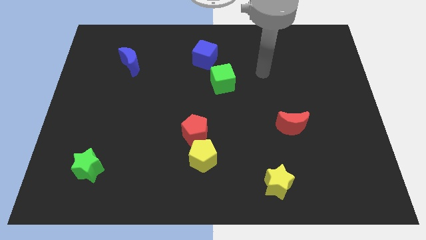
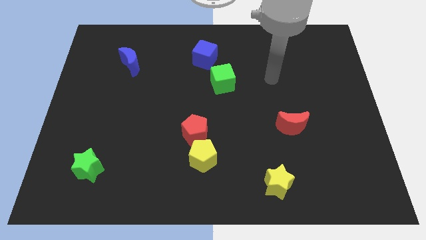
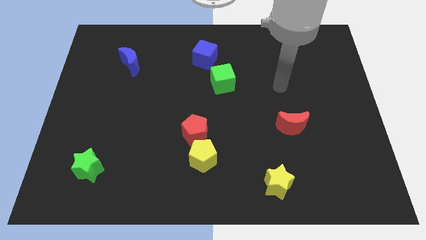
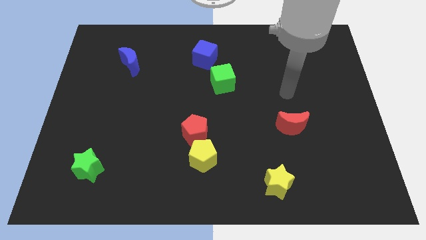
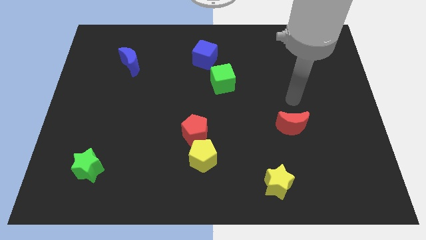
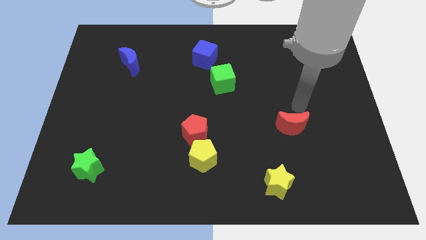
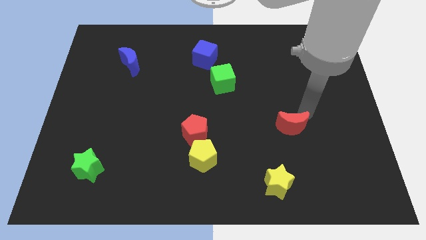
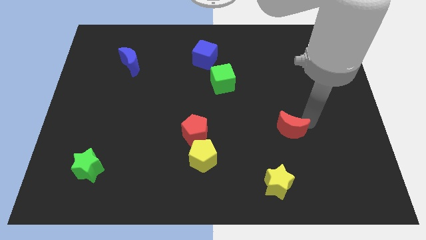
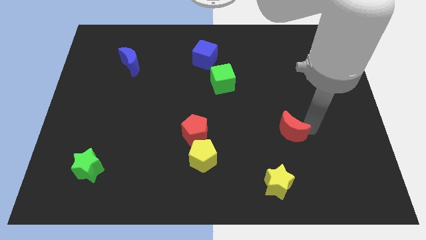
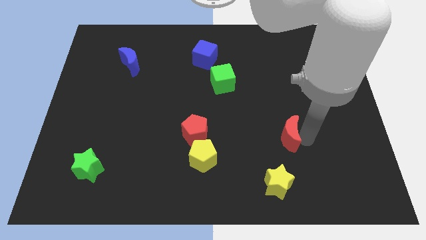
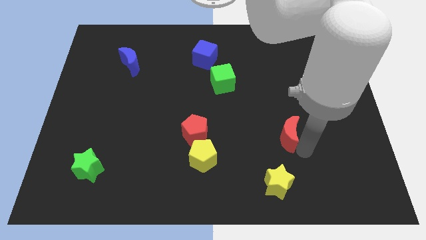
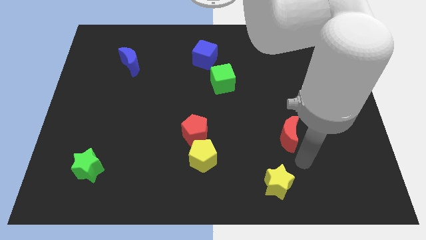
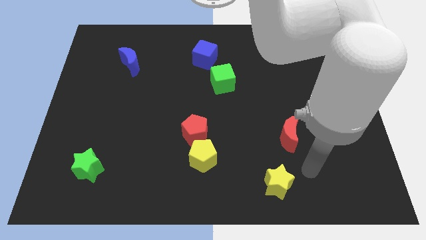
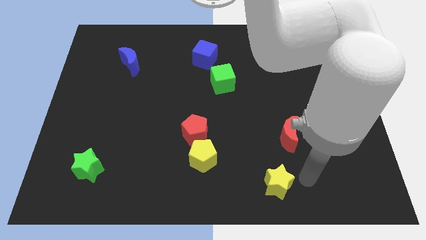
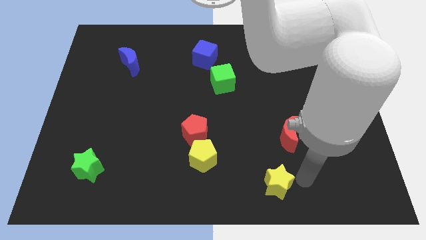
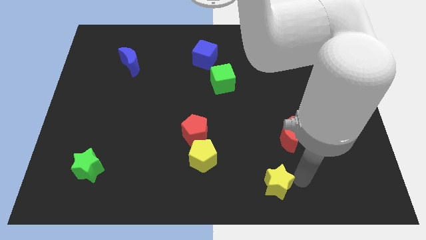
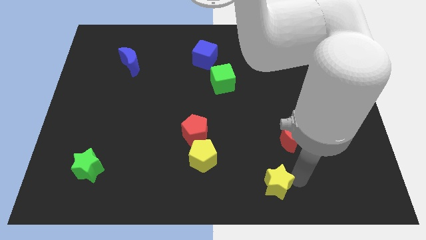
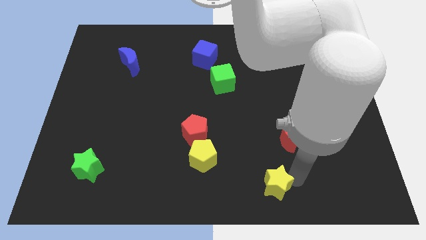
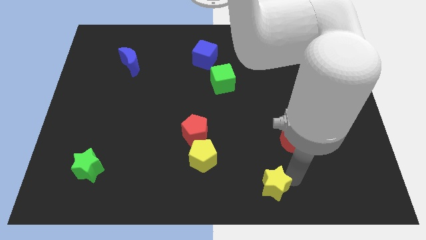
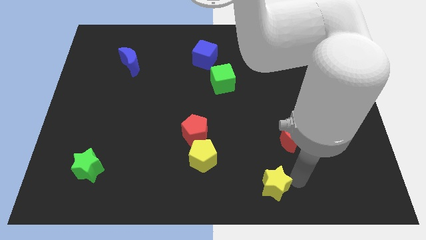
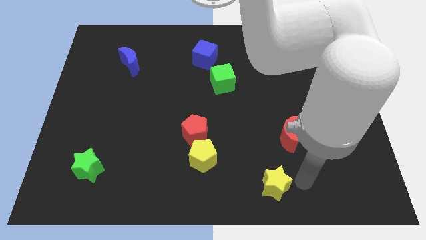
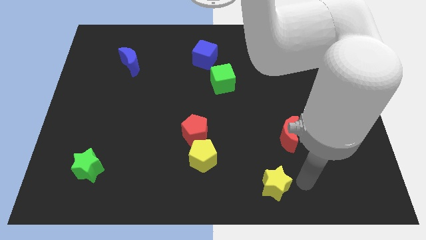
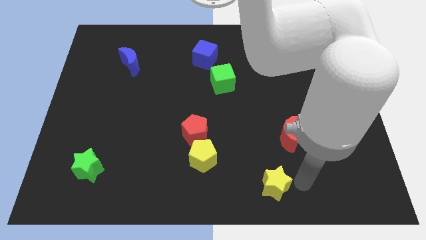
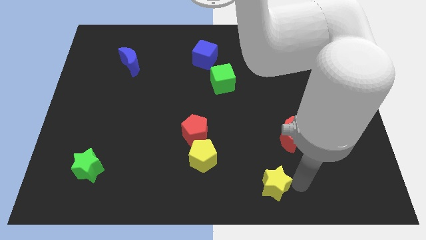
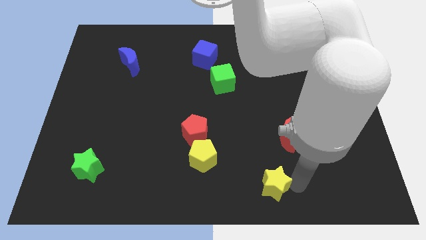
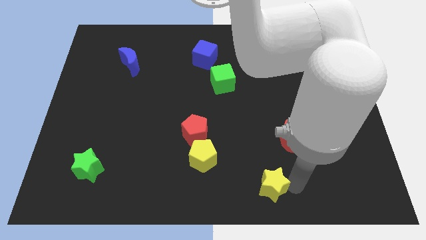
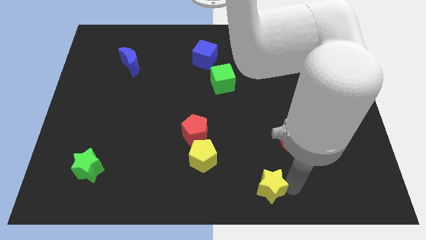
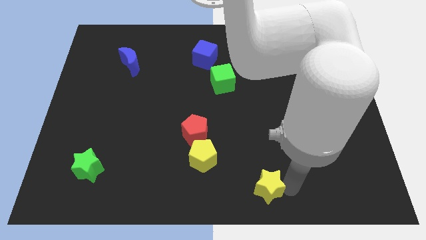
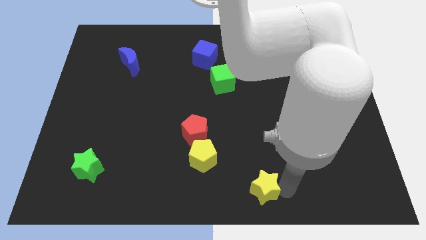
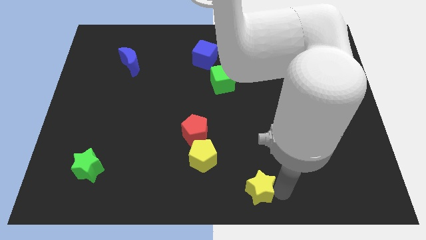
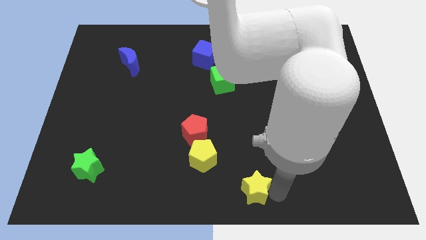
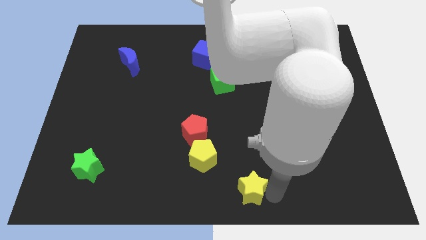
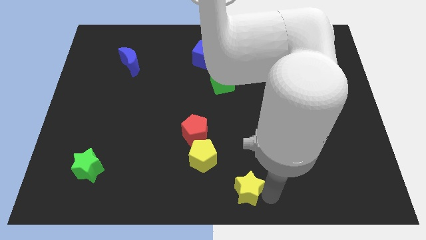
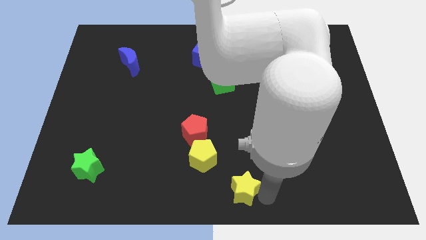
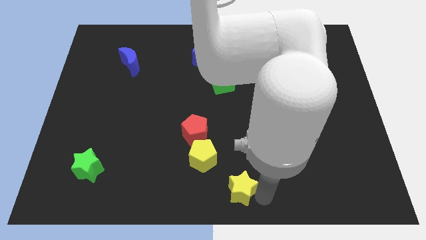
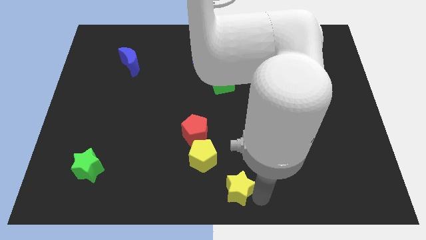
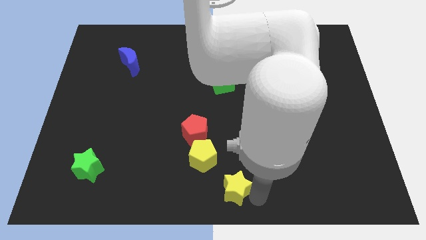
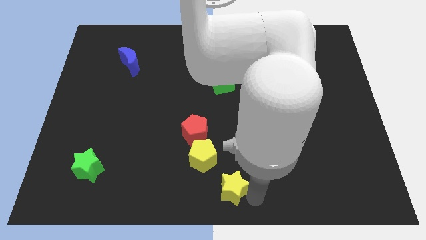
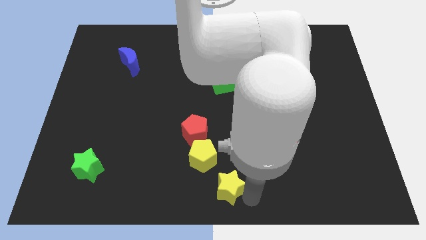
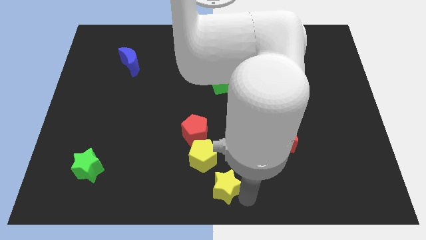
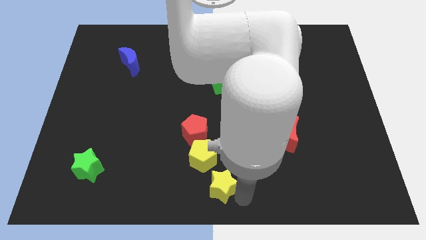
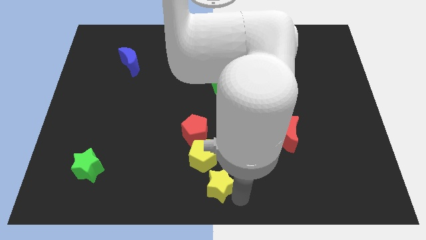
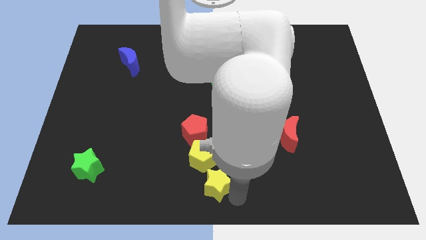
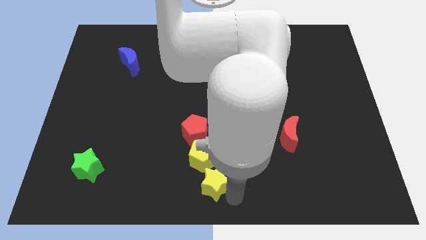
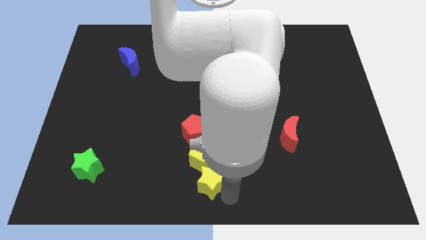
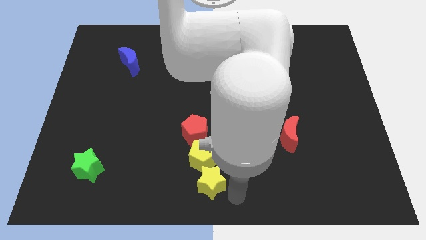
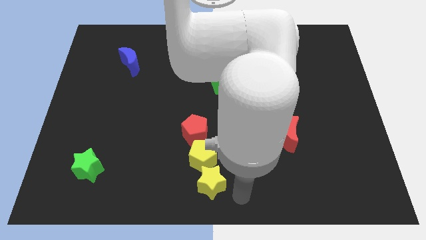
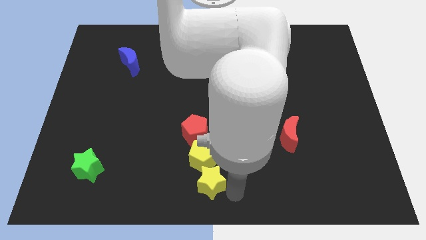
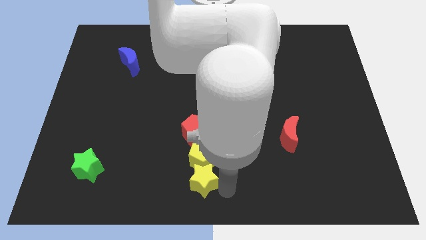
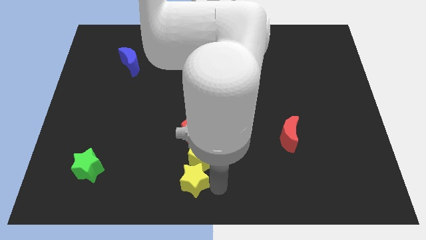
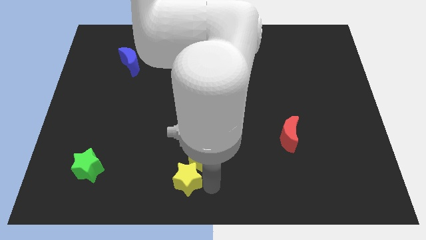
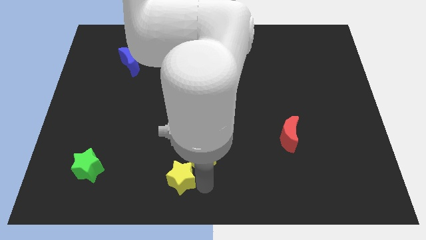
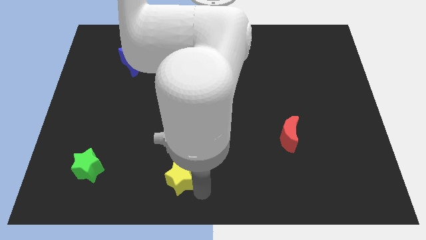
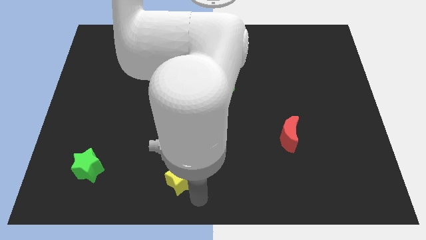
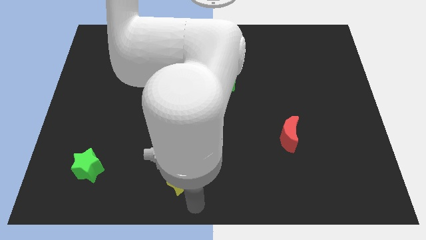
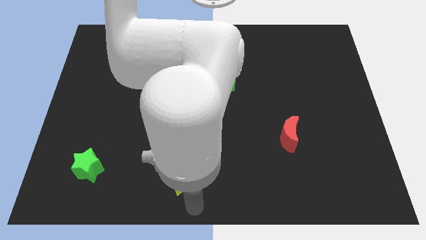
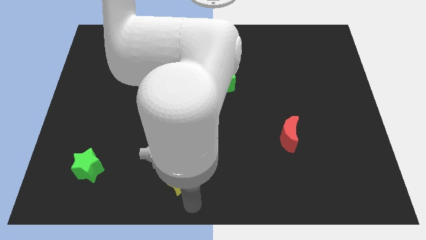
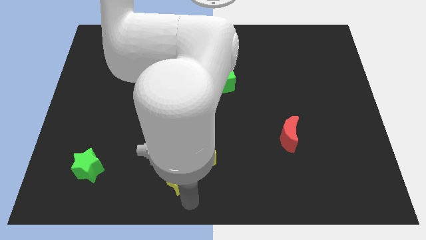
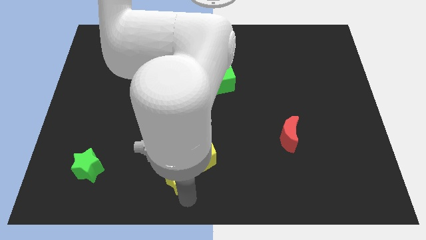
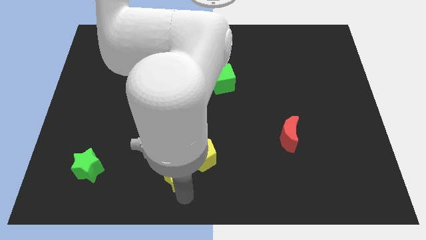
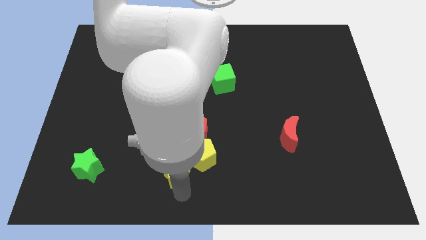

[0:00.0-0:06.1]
move the yellow star diagonally down and to the left of the red pentagon

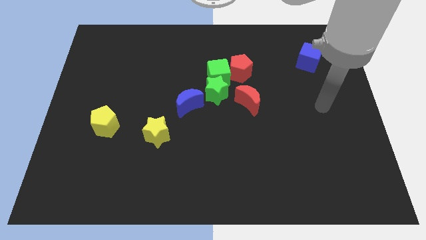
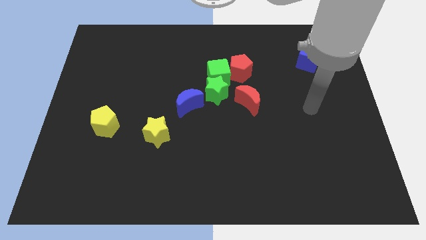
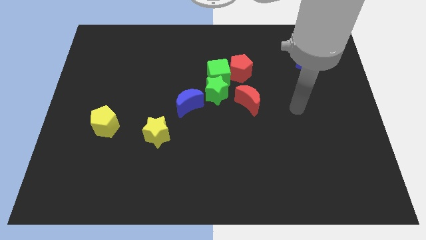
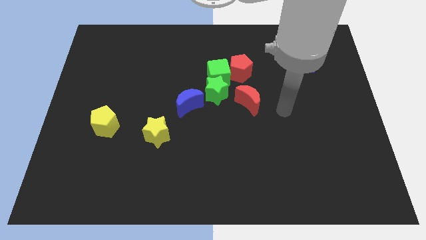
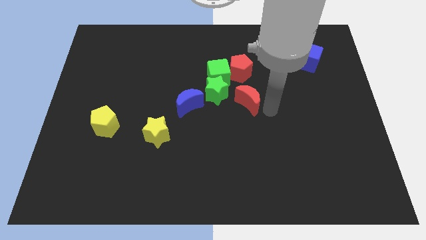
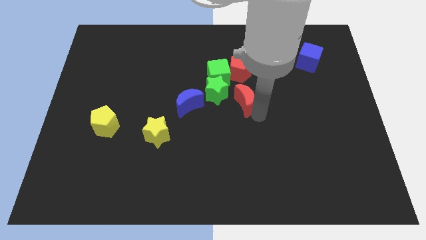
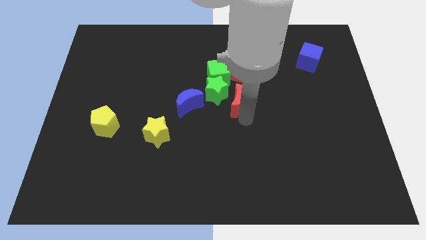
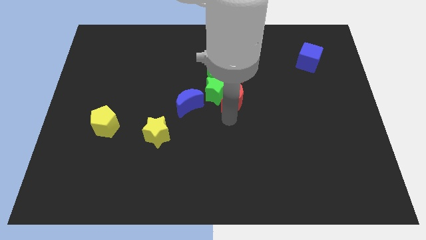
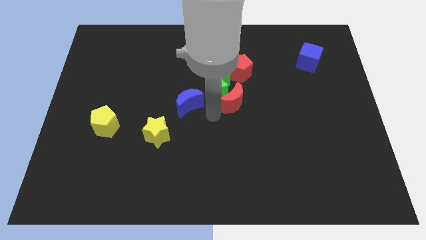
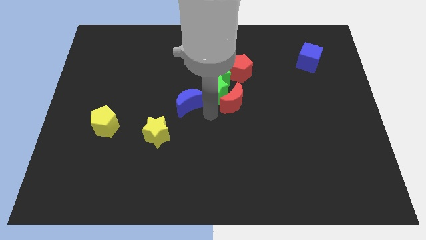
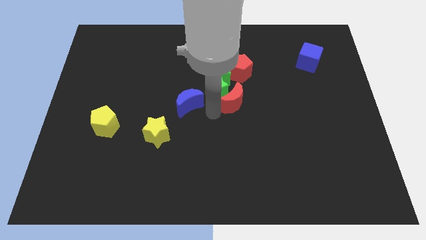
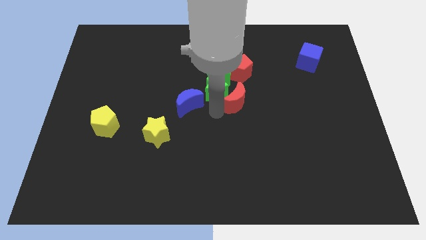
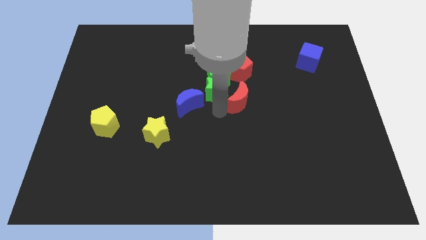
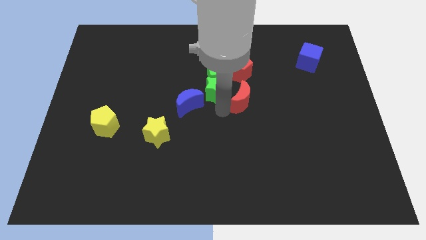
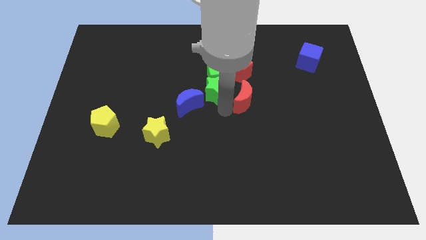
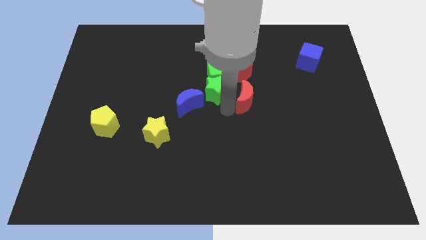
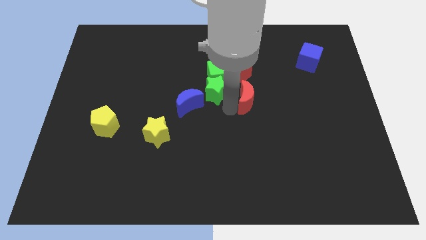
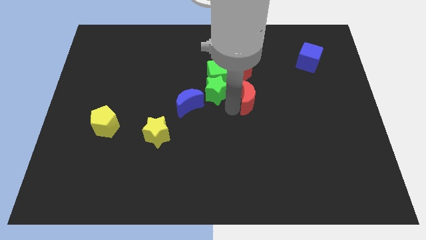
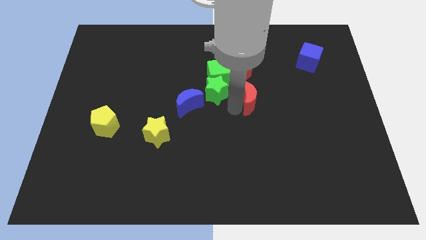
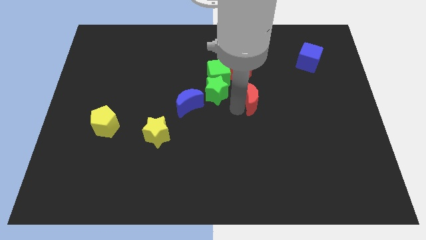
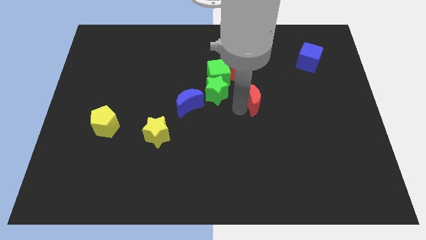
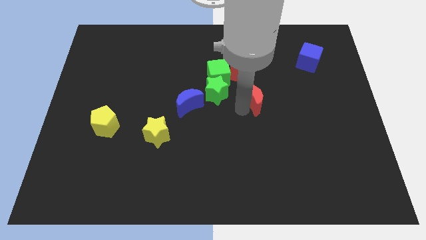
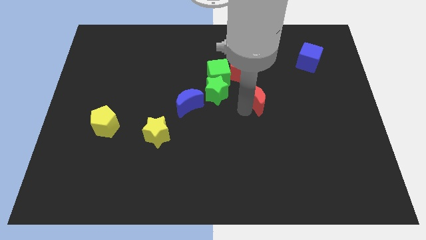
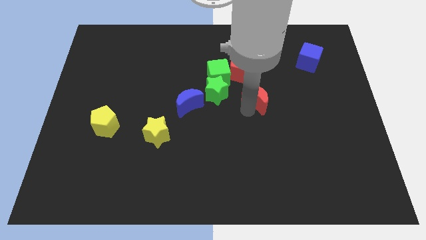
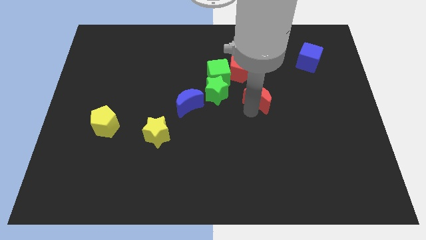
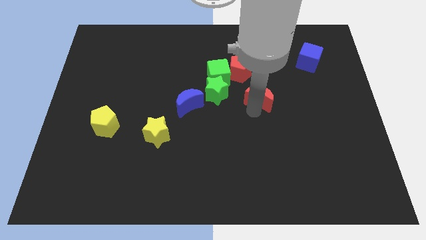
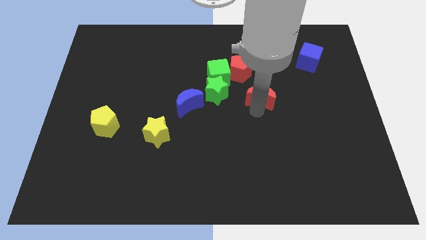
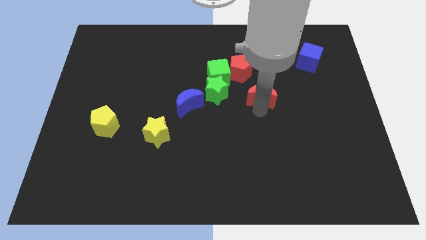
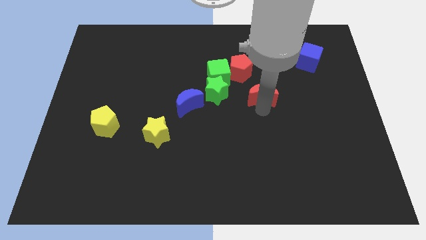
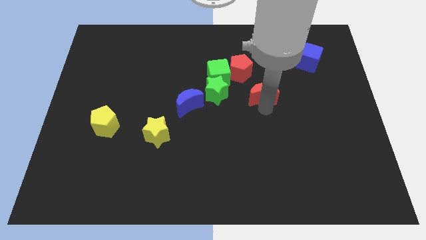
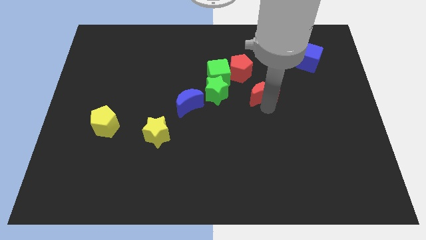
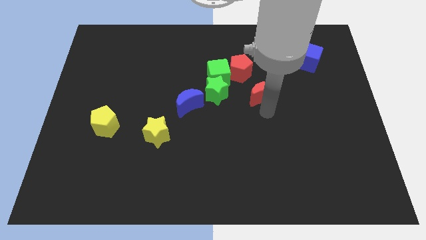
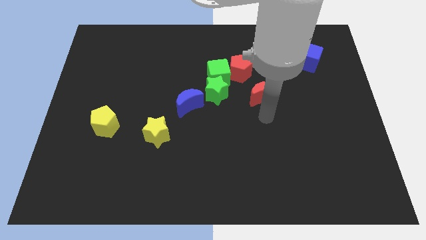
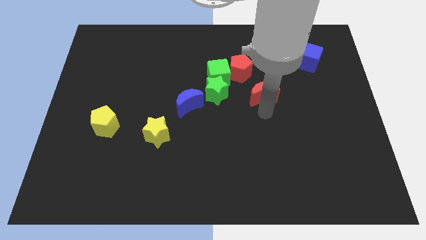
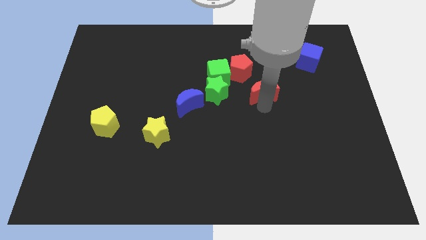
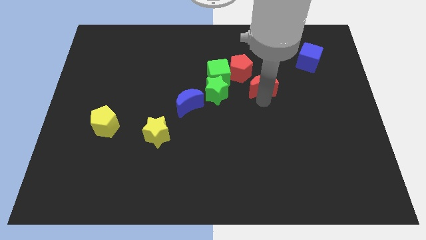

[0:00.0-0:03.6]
push the red moon to the right side of the green cube
